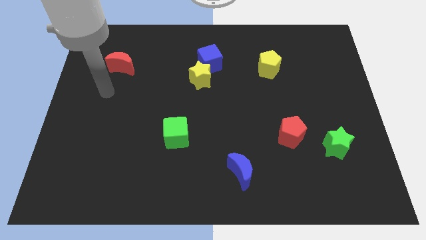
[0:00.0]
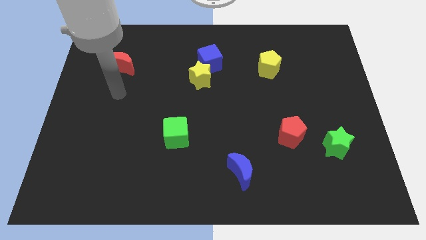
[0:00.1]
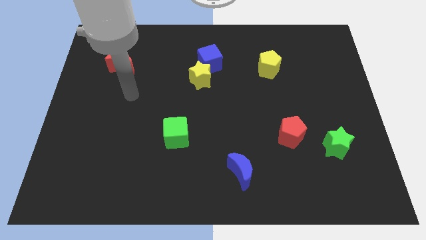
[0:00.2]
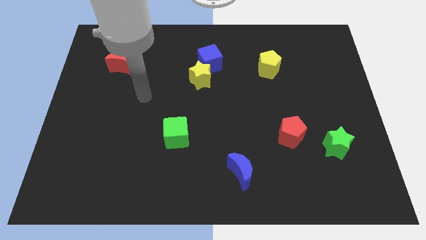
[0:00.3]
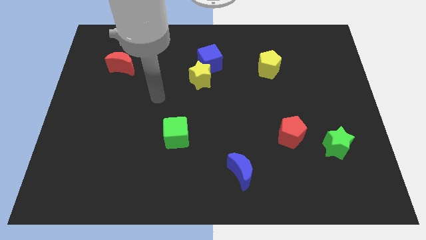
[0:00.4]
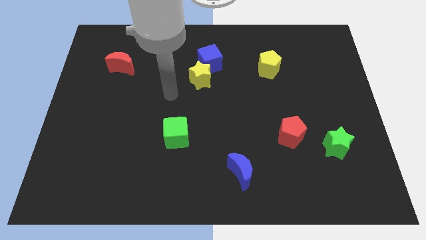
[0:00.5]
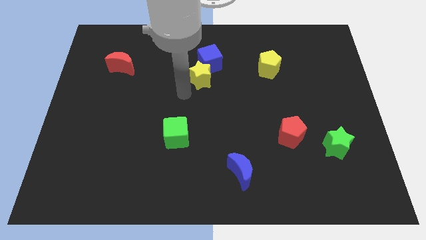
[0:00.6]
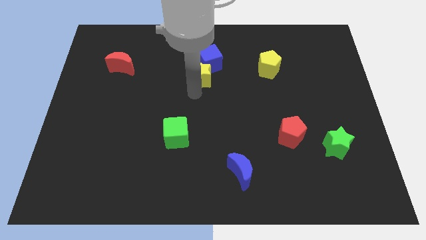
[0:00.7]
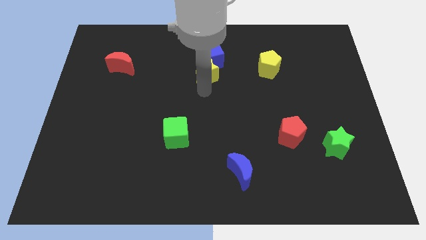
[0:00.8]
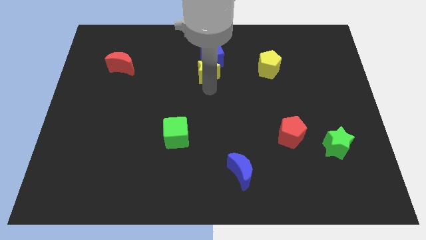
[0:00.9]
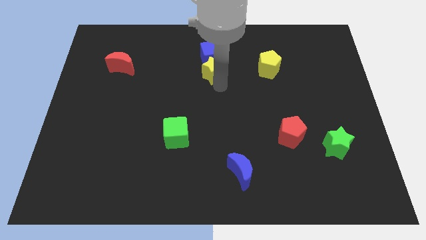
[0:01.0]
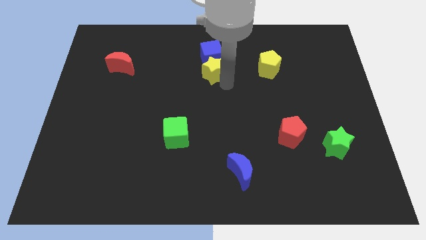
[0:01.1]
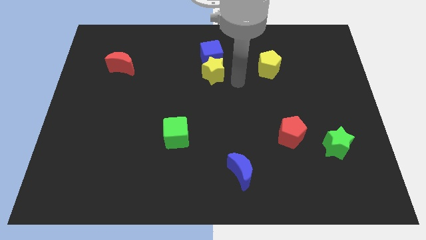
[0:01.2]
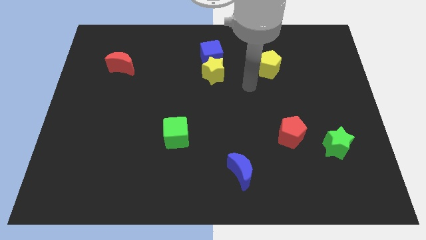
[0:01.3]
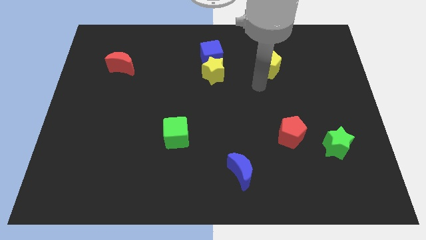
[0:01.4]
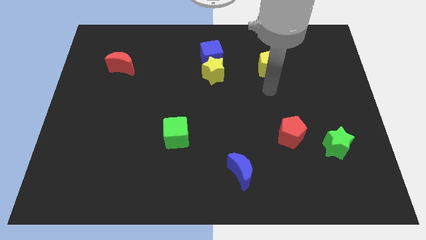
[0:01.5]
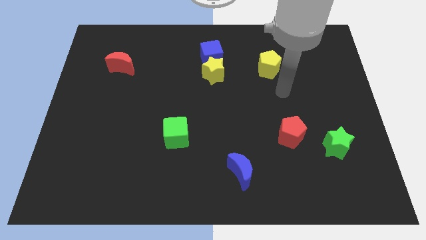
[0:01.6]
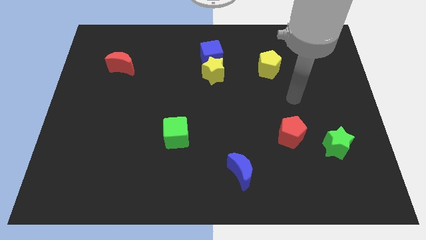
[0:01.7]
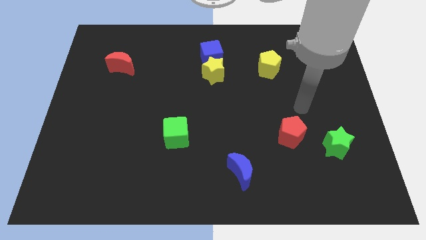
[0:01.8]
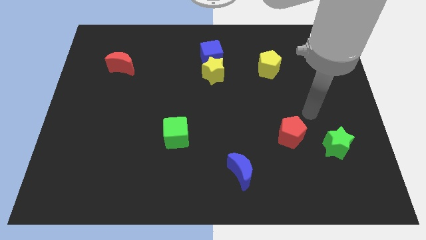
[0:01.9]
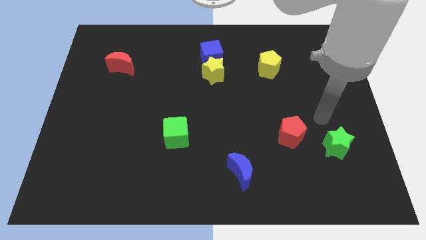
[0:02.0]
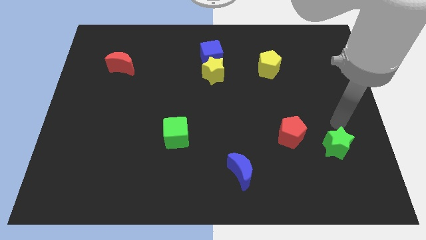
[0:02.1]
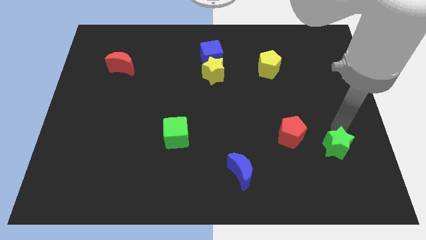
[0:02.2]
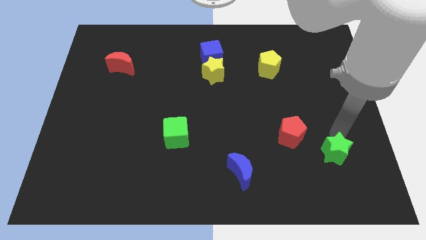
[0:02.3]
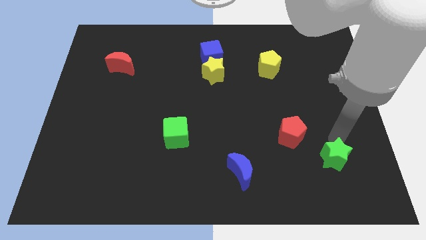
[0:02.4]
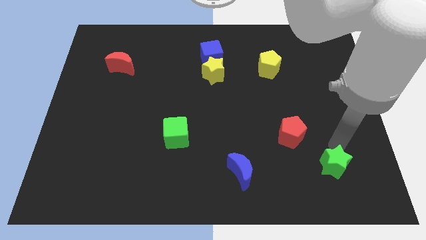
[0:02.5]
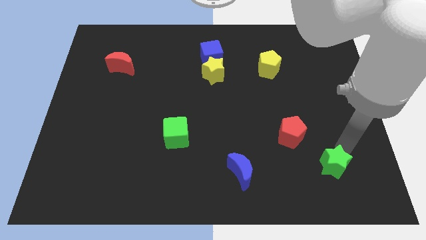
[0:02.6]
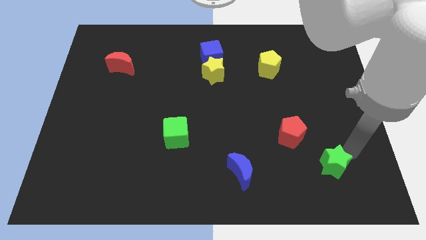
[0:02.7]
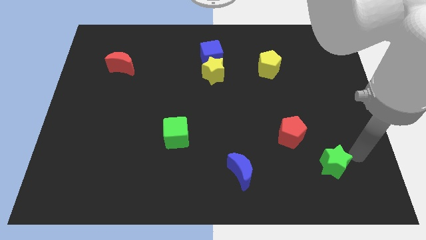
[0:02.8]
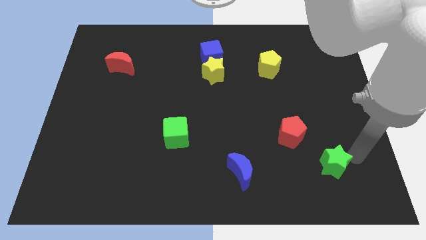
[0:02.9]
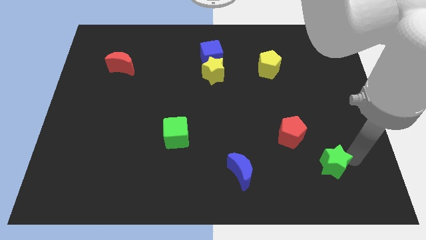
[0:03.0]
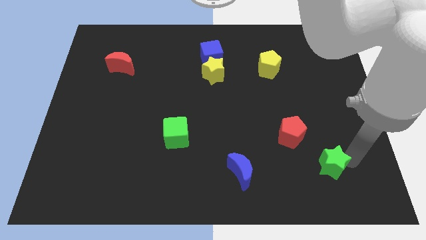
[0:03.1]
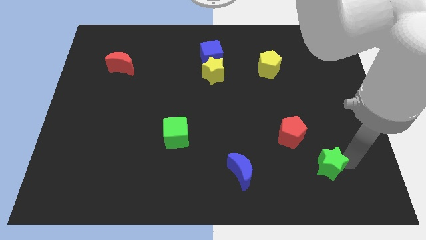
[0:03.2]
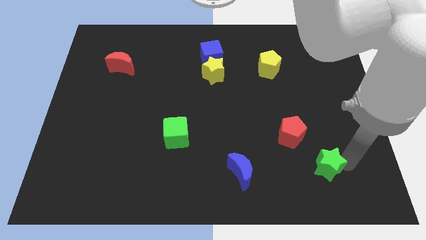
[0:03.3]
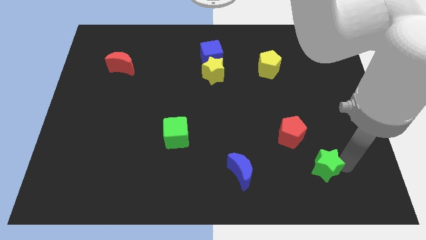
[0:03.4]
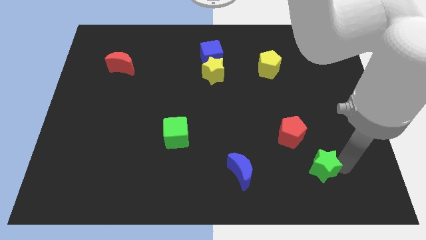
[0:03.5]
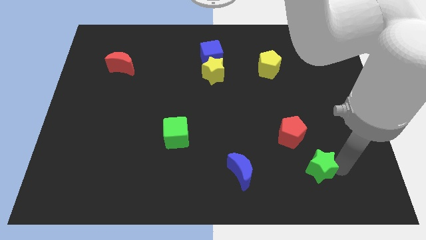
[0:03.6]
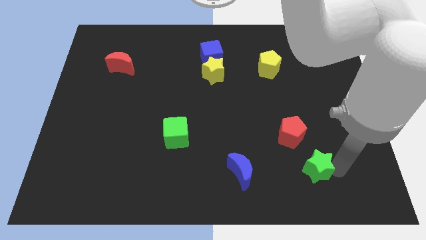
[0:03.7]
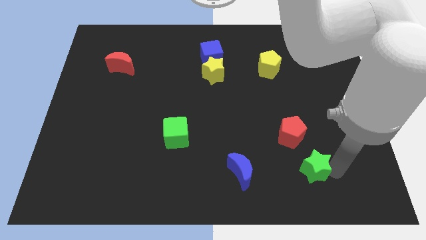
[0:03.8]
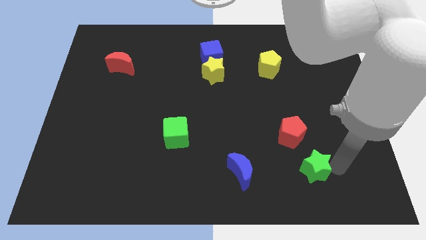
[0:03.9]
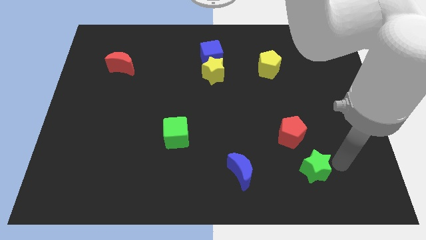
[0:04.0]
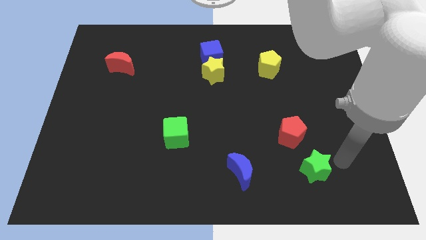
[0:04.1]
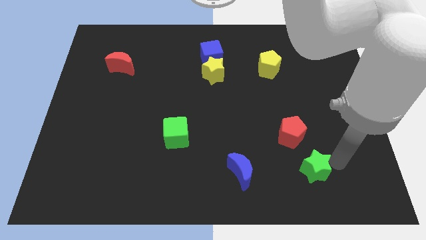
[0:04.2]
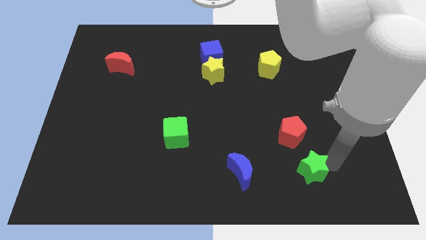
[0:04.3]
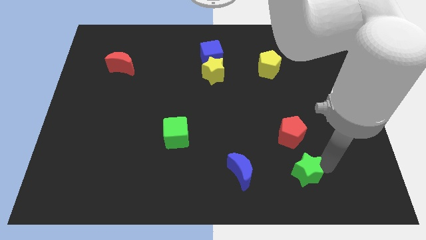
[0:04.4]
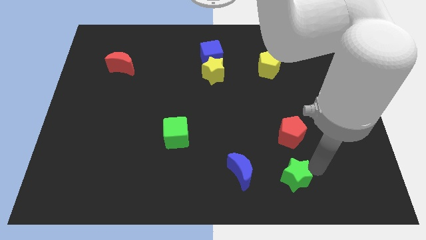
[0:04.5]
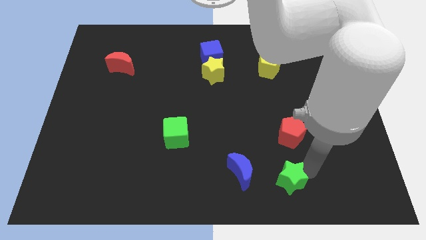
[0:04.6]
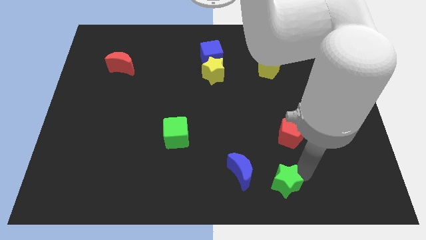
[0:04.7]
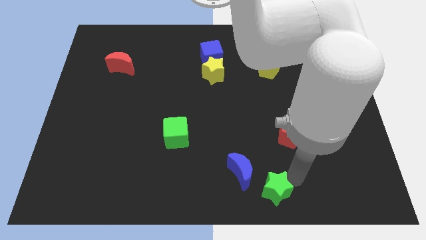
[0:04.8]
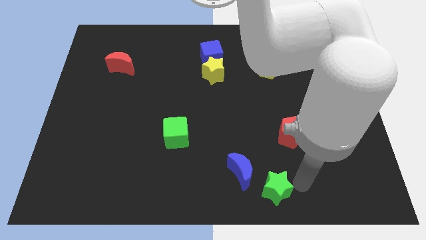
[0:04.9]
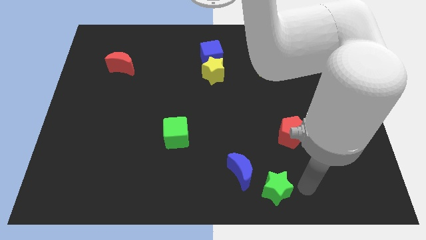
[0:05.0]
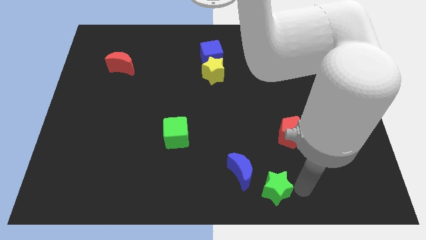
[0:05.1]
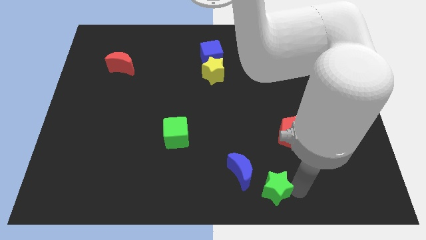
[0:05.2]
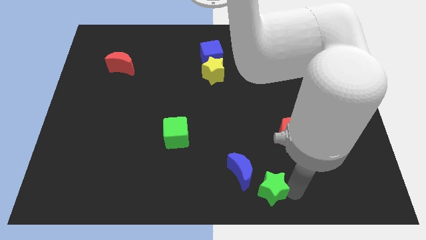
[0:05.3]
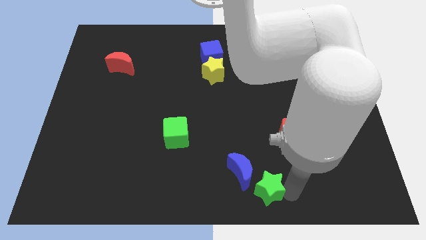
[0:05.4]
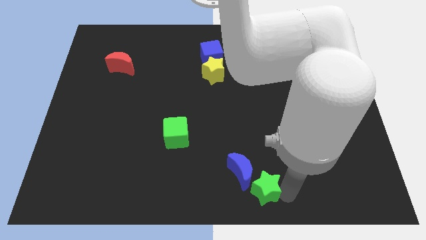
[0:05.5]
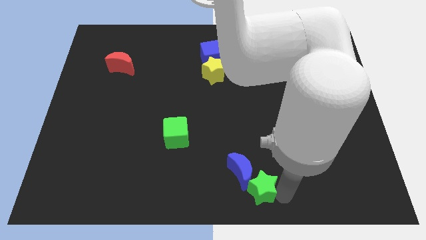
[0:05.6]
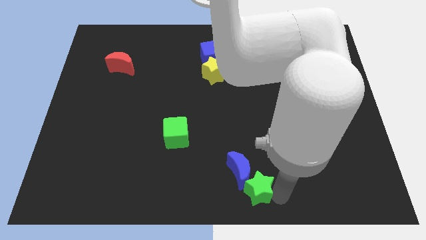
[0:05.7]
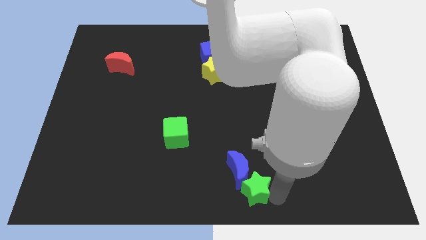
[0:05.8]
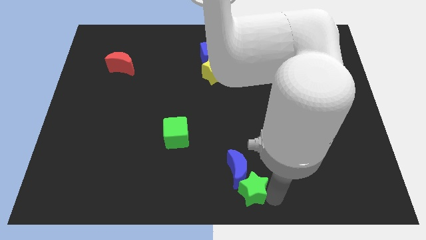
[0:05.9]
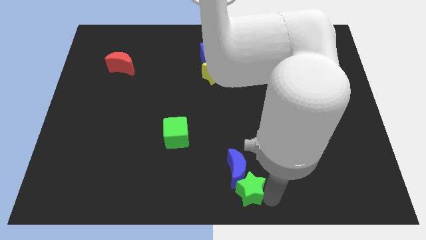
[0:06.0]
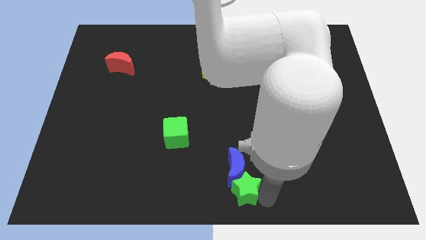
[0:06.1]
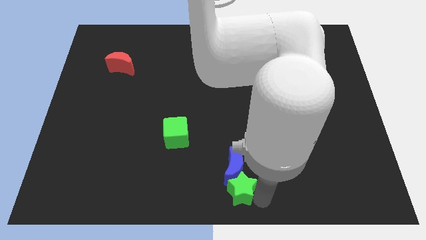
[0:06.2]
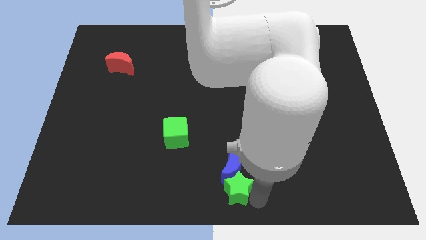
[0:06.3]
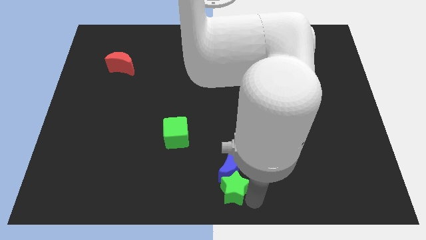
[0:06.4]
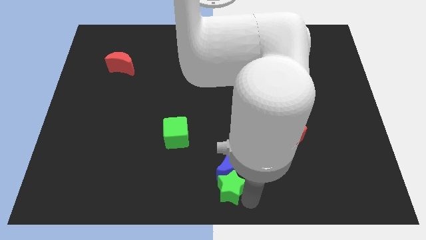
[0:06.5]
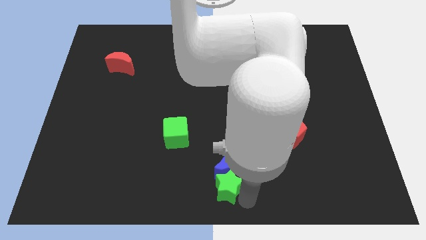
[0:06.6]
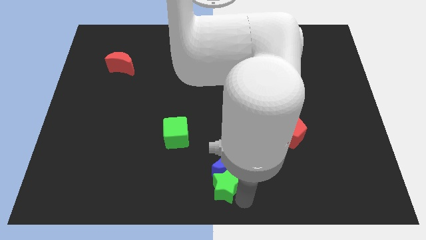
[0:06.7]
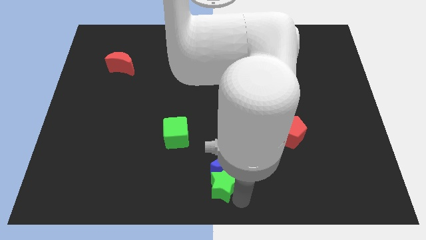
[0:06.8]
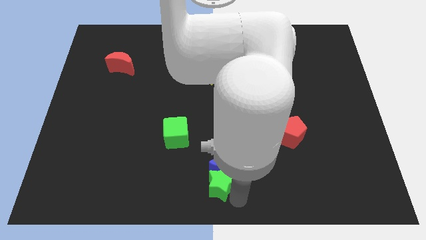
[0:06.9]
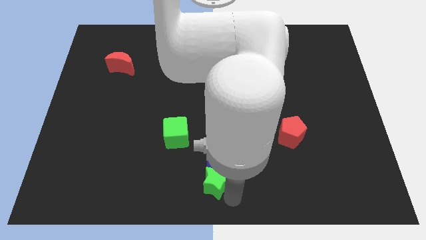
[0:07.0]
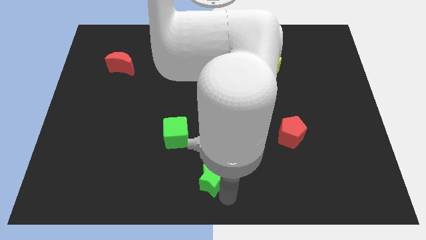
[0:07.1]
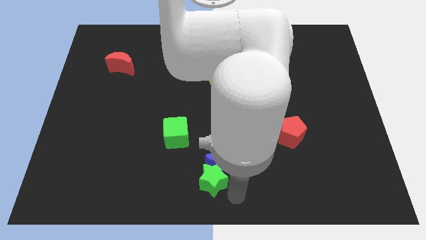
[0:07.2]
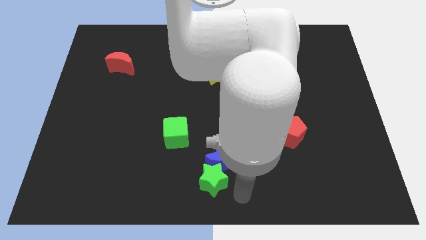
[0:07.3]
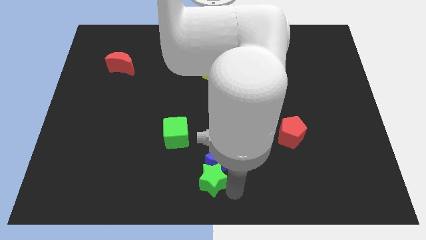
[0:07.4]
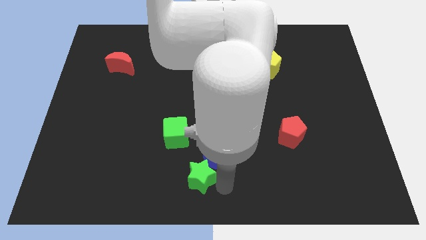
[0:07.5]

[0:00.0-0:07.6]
move the green star to the left side of the blue moon

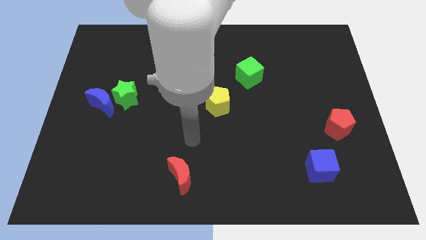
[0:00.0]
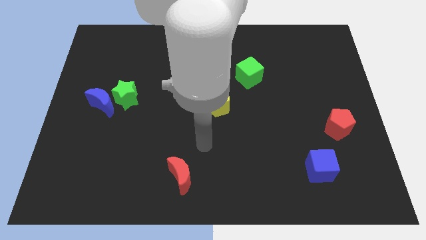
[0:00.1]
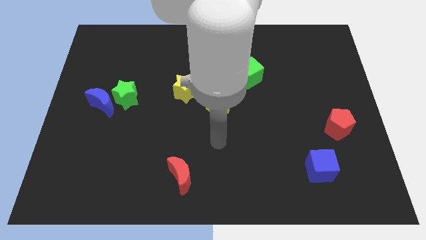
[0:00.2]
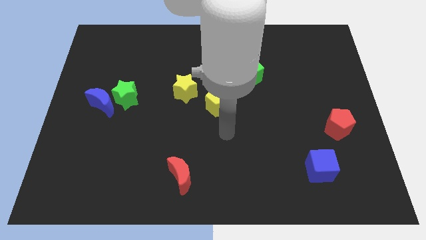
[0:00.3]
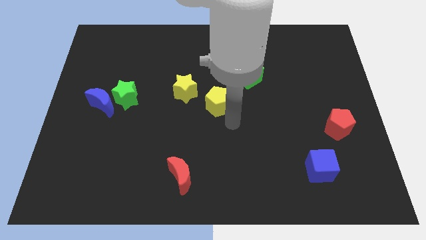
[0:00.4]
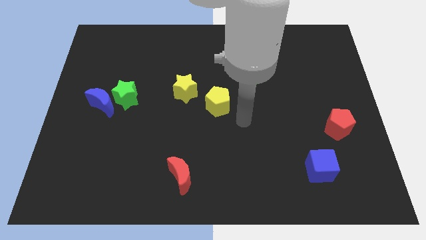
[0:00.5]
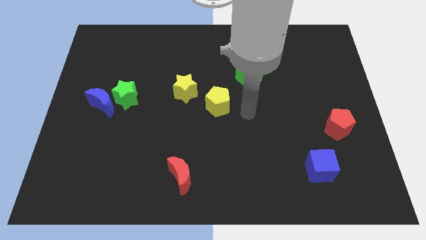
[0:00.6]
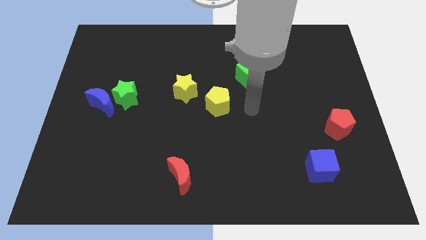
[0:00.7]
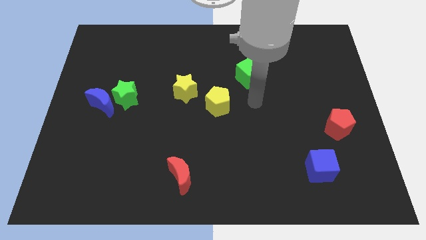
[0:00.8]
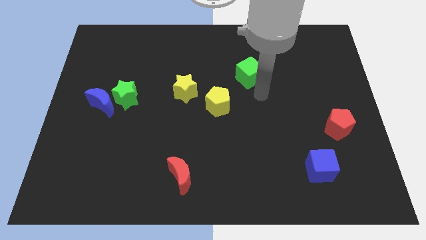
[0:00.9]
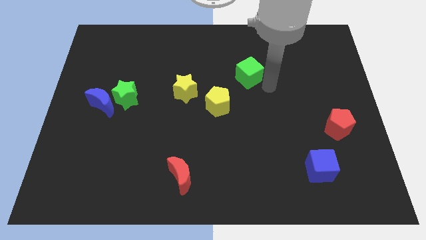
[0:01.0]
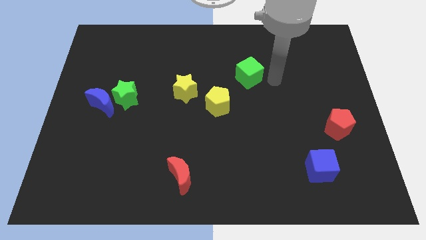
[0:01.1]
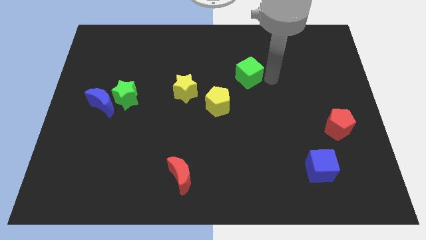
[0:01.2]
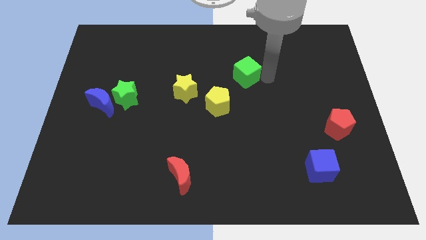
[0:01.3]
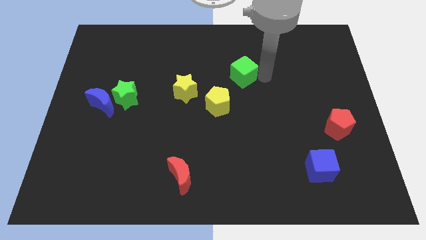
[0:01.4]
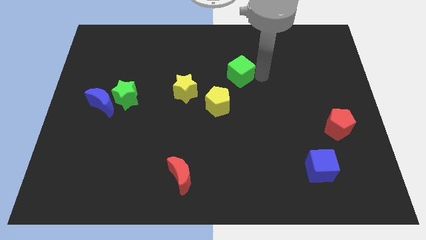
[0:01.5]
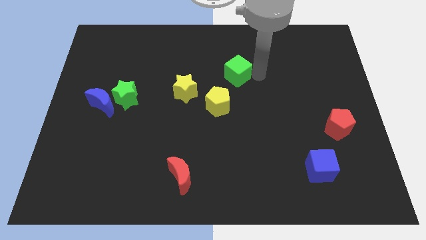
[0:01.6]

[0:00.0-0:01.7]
move the green cube above the yellow pentagon
